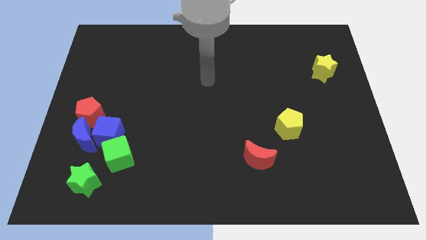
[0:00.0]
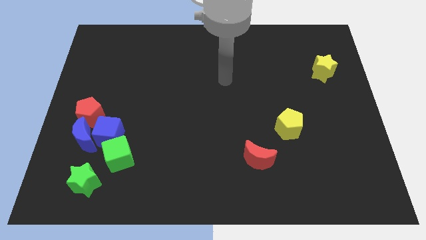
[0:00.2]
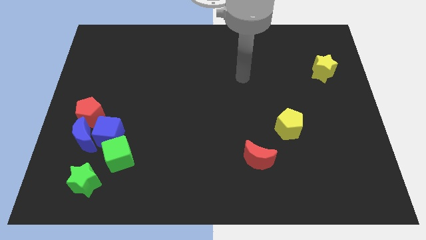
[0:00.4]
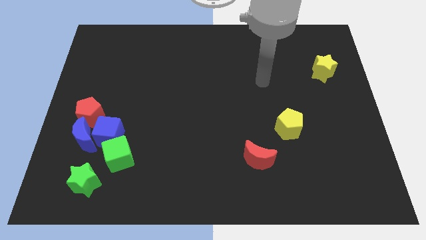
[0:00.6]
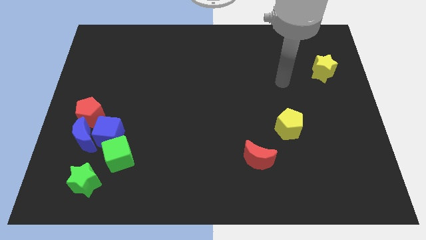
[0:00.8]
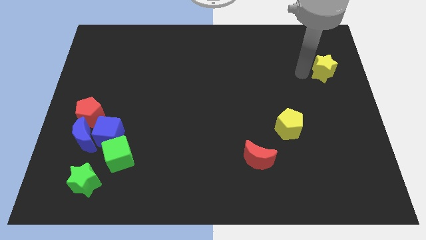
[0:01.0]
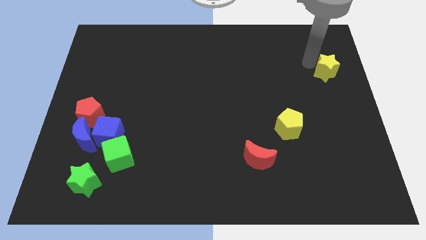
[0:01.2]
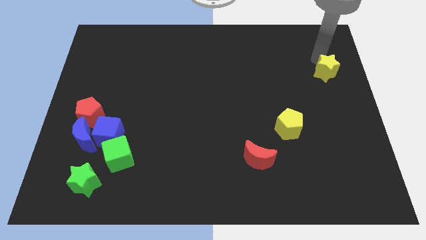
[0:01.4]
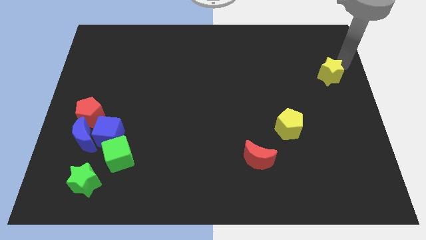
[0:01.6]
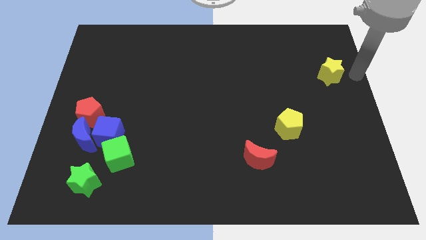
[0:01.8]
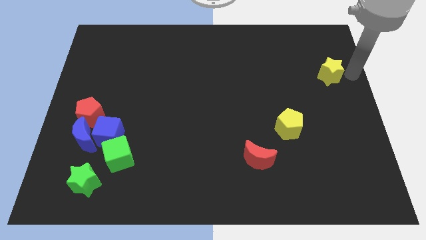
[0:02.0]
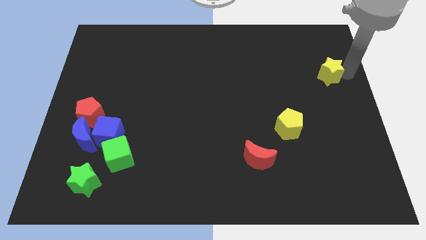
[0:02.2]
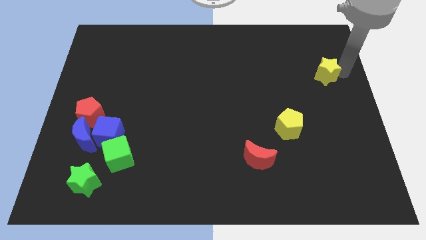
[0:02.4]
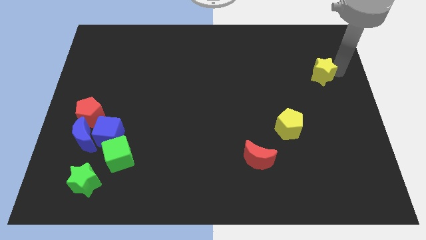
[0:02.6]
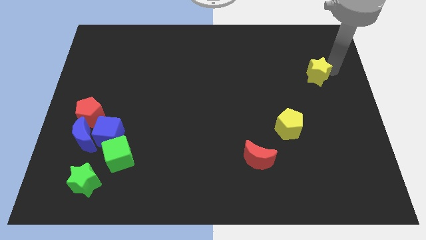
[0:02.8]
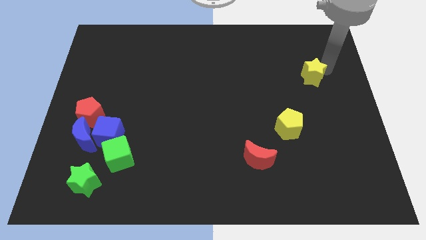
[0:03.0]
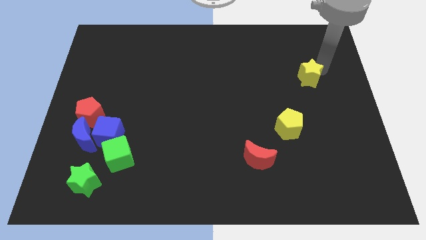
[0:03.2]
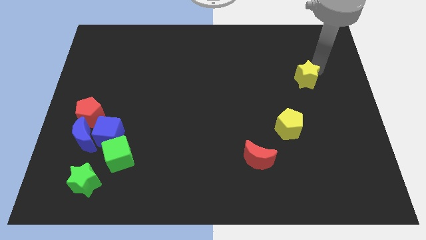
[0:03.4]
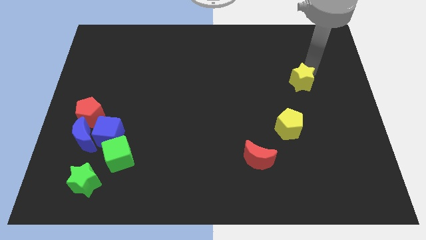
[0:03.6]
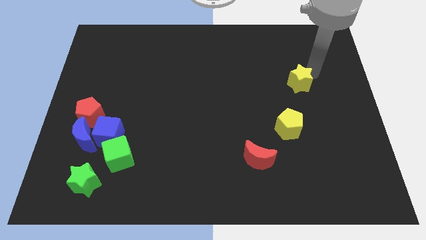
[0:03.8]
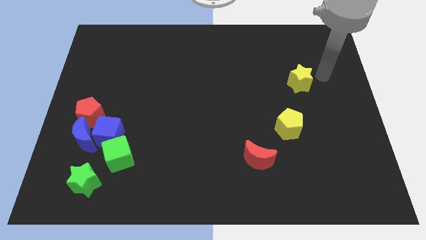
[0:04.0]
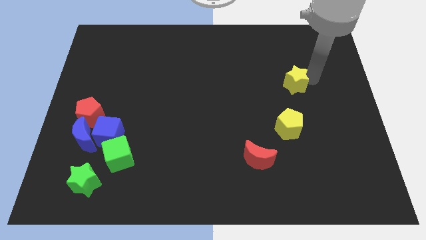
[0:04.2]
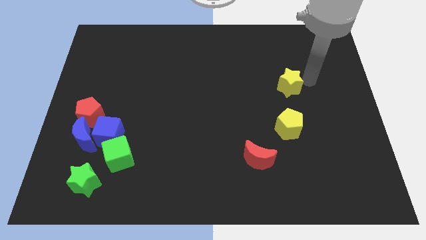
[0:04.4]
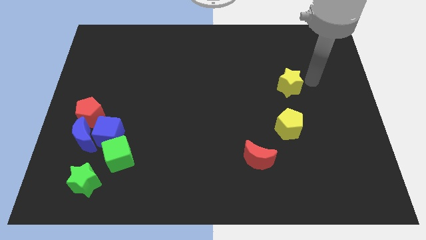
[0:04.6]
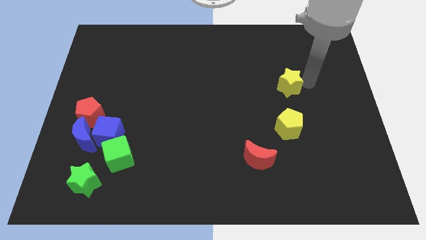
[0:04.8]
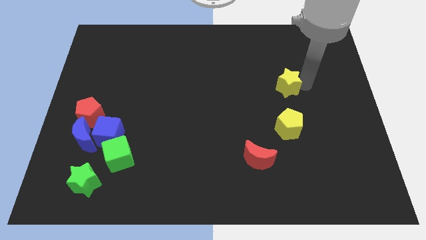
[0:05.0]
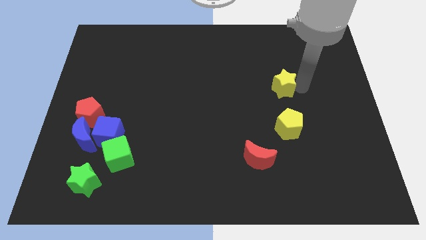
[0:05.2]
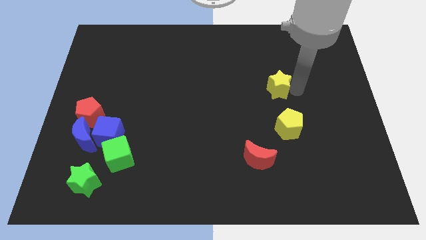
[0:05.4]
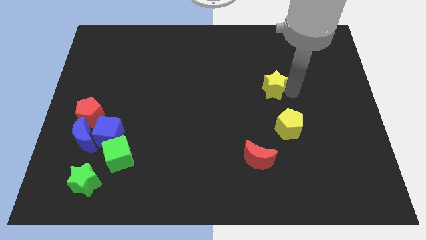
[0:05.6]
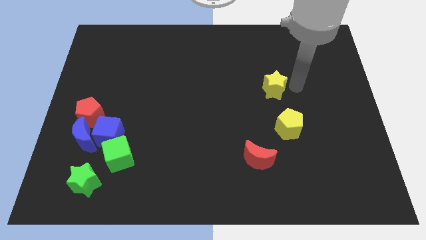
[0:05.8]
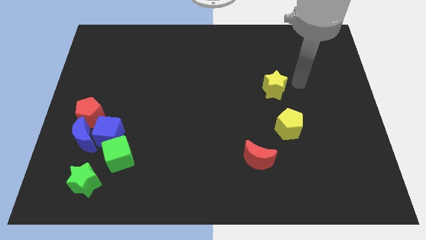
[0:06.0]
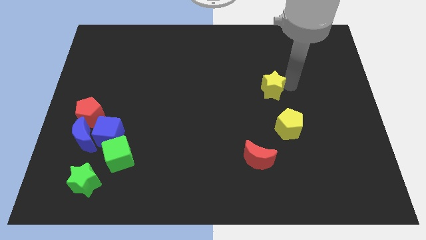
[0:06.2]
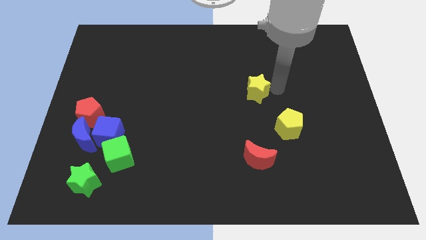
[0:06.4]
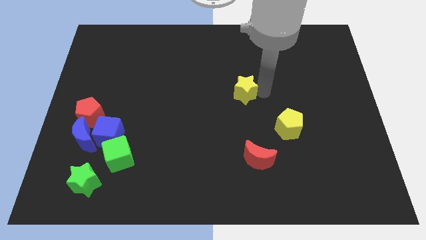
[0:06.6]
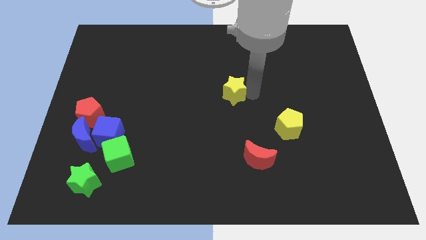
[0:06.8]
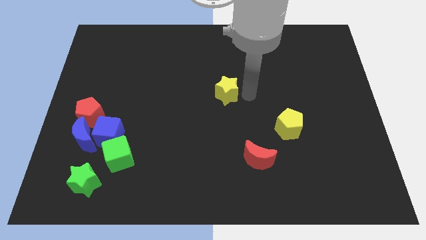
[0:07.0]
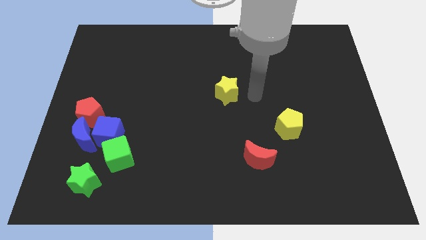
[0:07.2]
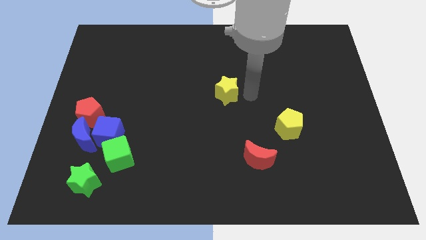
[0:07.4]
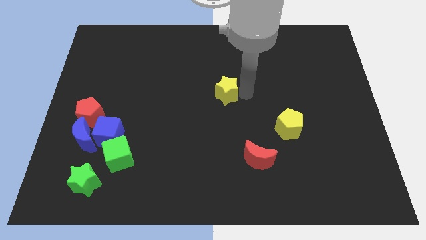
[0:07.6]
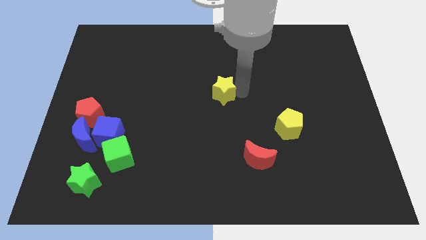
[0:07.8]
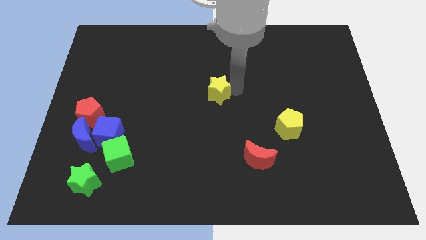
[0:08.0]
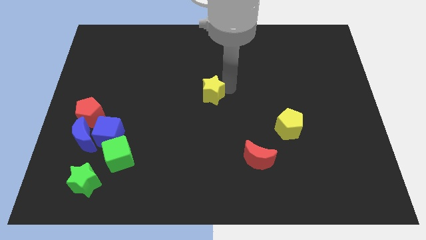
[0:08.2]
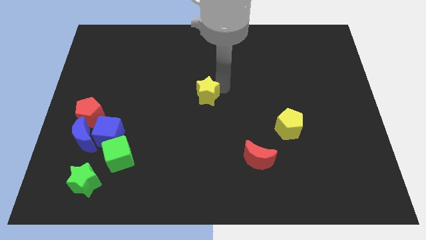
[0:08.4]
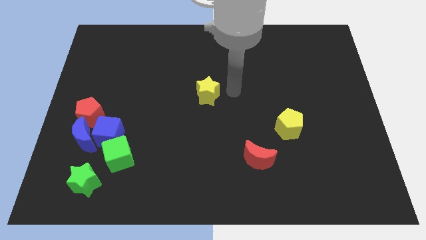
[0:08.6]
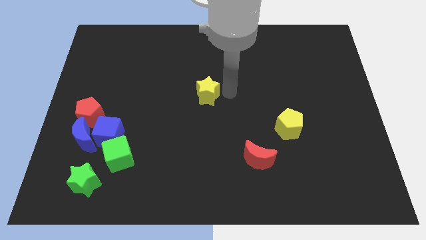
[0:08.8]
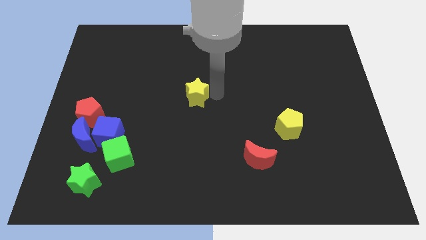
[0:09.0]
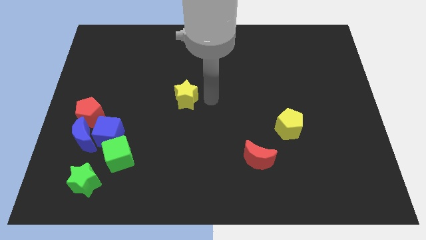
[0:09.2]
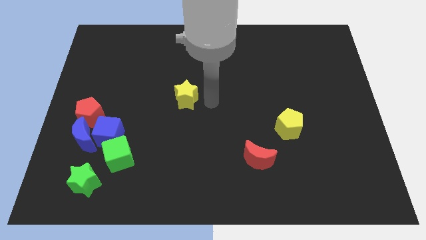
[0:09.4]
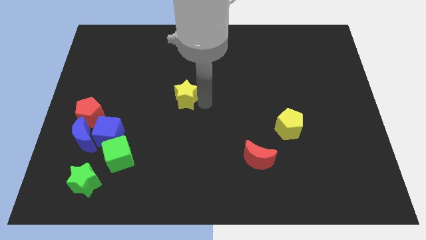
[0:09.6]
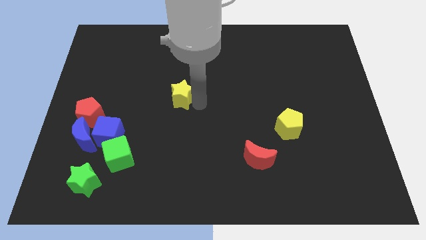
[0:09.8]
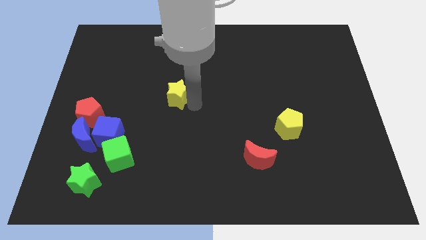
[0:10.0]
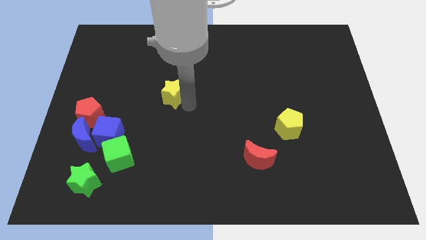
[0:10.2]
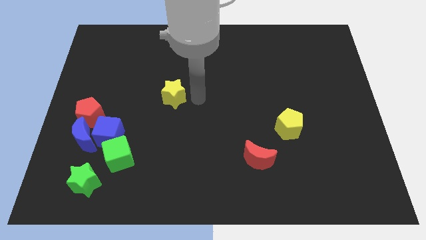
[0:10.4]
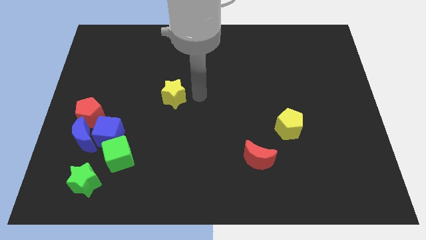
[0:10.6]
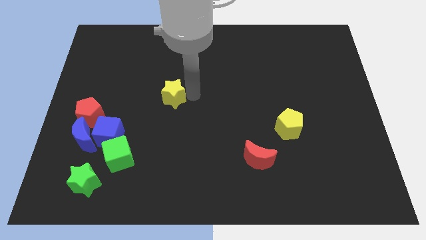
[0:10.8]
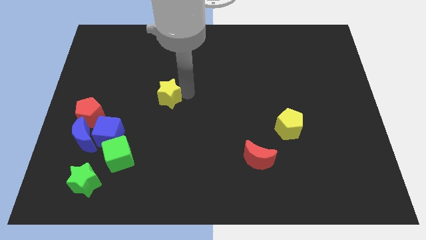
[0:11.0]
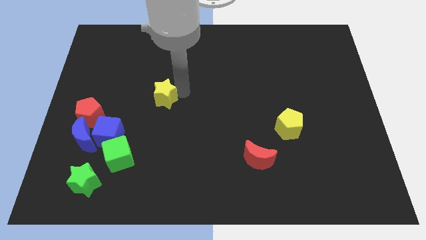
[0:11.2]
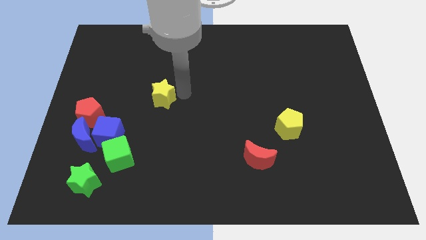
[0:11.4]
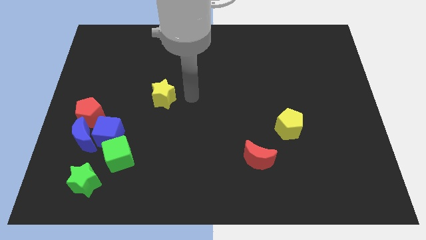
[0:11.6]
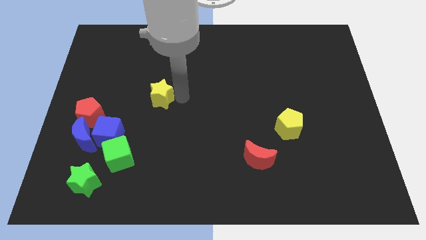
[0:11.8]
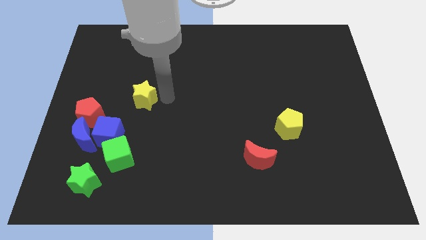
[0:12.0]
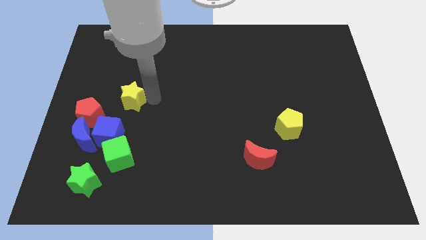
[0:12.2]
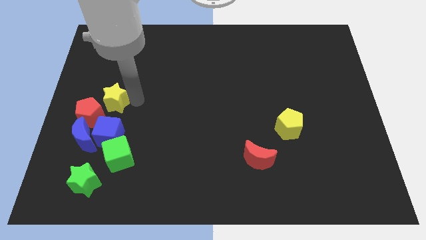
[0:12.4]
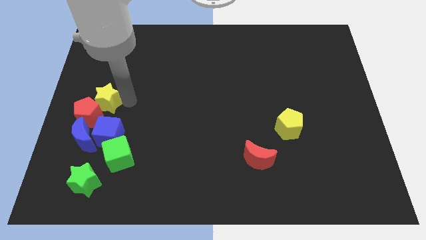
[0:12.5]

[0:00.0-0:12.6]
slide the yellow star above the blue moon

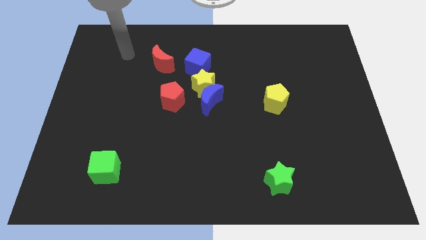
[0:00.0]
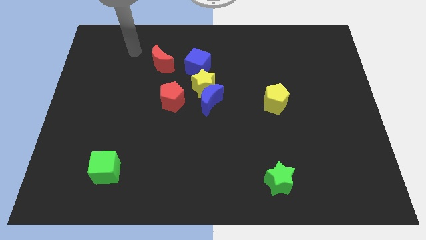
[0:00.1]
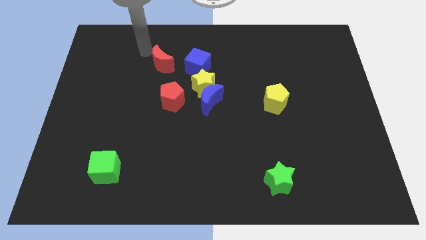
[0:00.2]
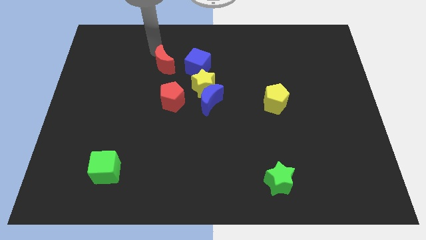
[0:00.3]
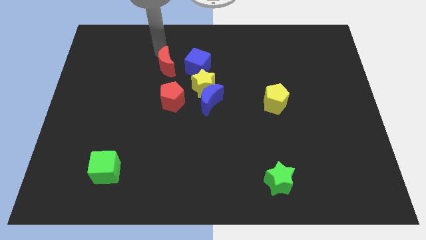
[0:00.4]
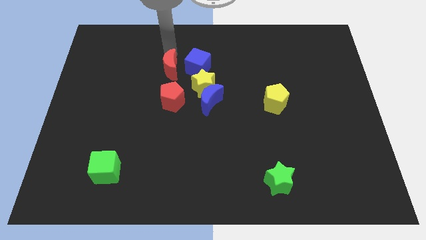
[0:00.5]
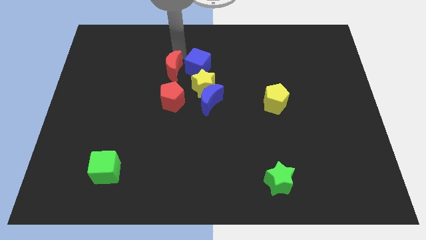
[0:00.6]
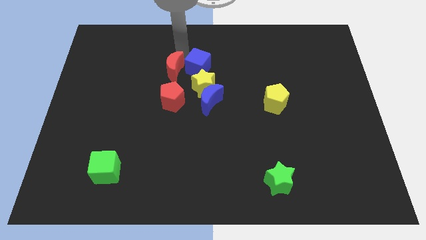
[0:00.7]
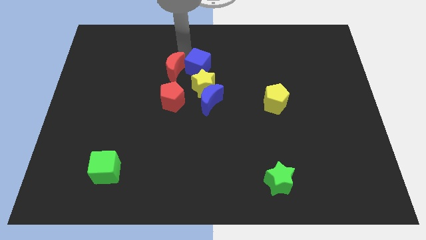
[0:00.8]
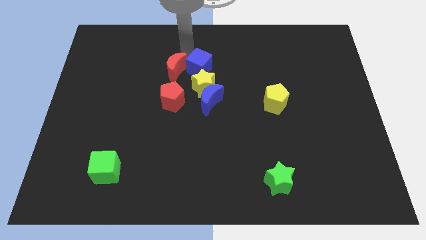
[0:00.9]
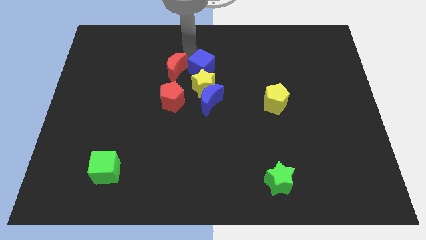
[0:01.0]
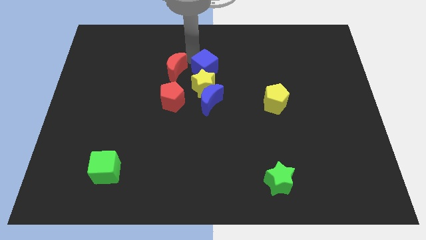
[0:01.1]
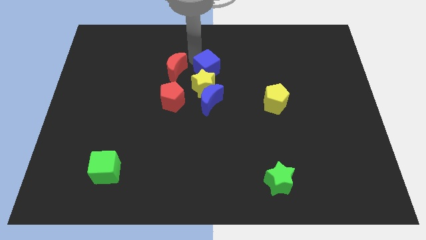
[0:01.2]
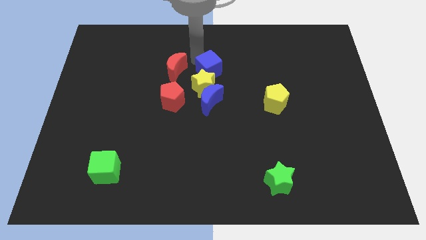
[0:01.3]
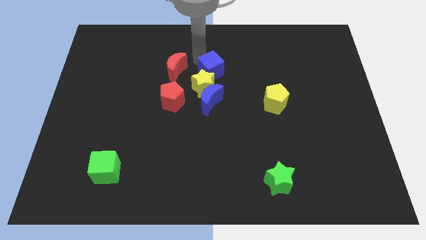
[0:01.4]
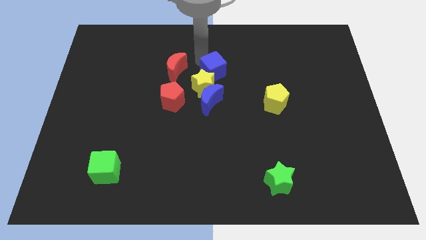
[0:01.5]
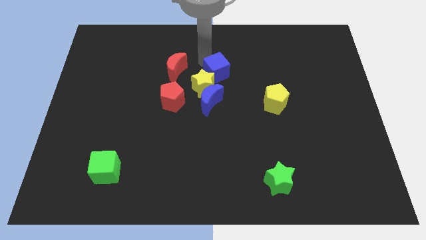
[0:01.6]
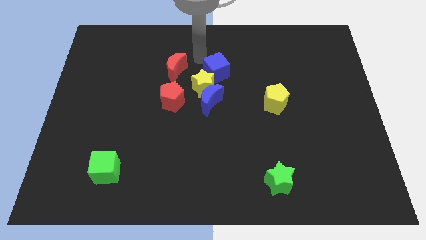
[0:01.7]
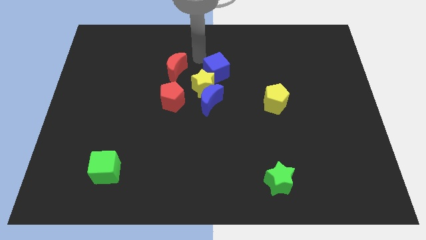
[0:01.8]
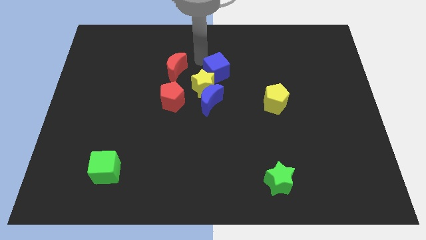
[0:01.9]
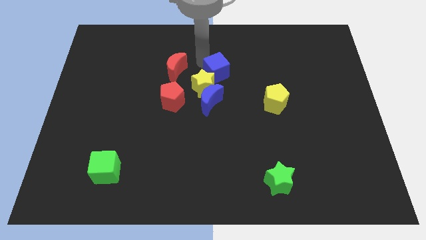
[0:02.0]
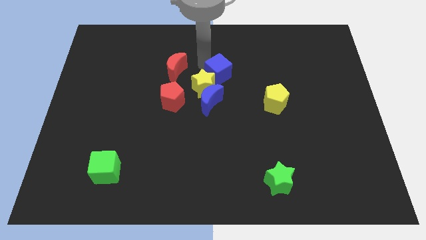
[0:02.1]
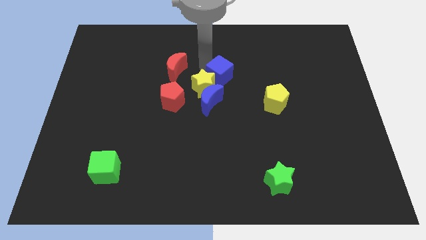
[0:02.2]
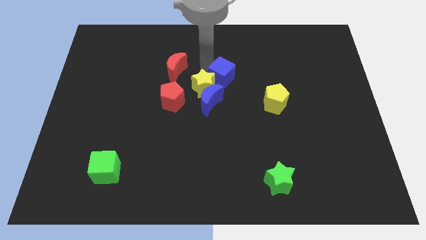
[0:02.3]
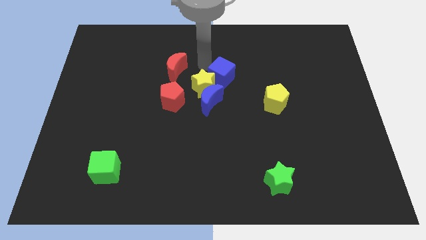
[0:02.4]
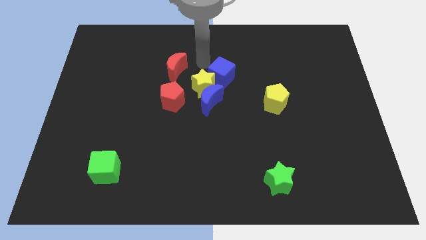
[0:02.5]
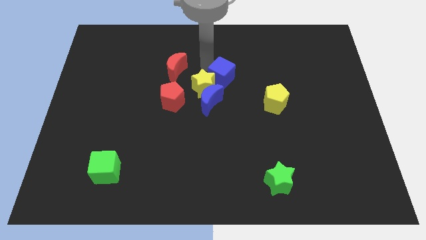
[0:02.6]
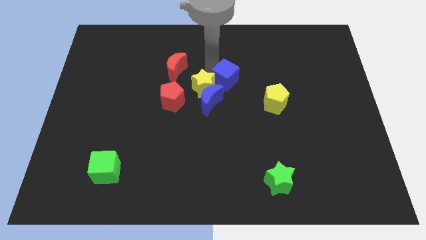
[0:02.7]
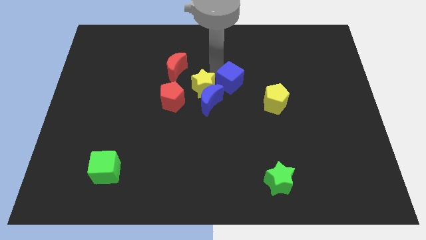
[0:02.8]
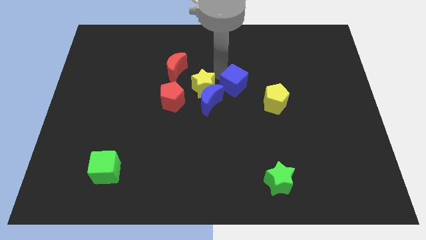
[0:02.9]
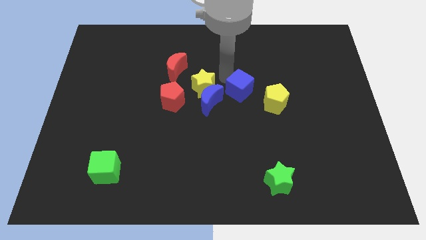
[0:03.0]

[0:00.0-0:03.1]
push the blue cube just right of the blue moon
